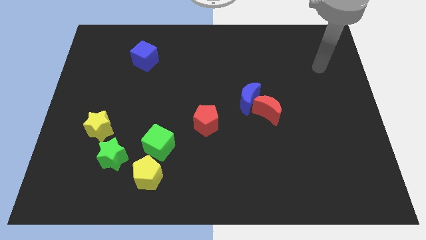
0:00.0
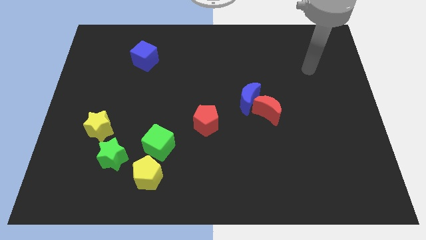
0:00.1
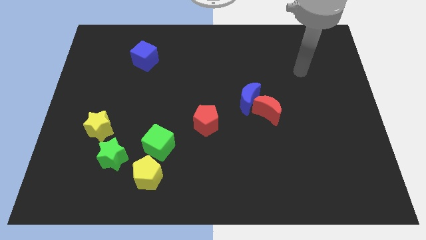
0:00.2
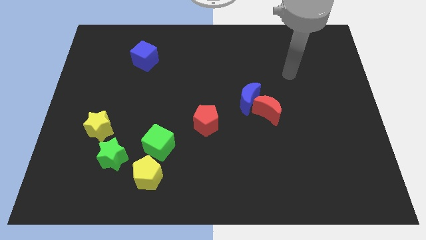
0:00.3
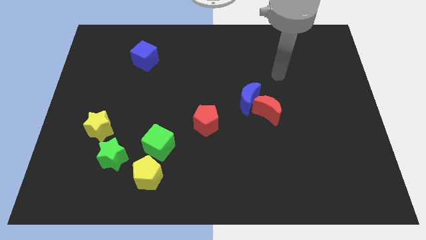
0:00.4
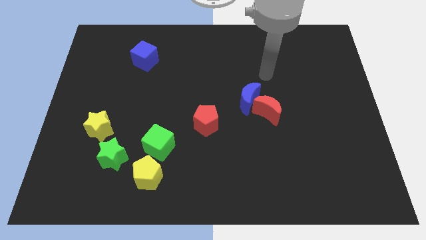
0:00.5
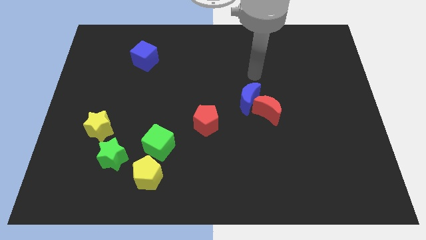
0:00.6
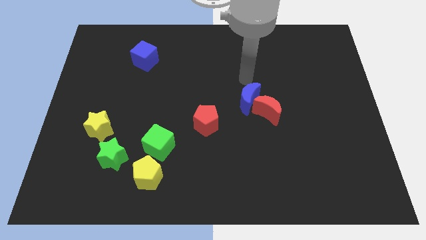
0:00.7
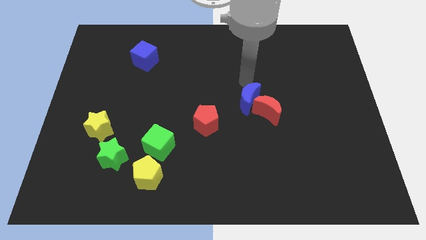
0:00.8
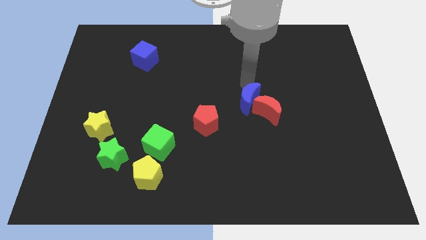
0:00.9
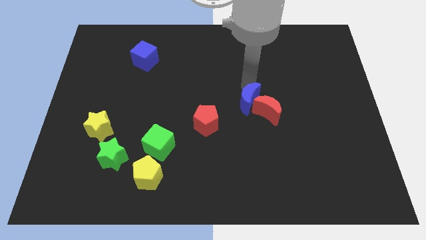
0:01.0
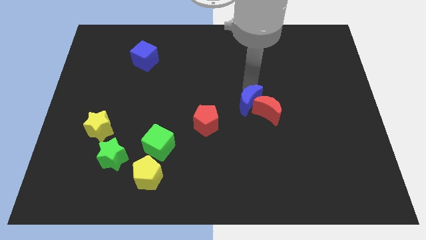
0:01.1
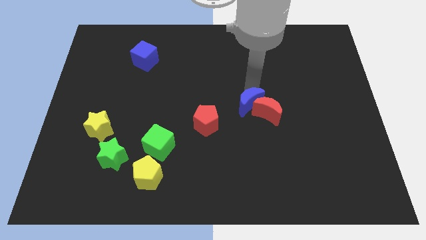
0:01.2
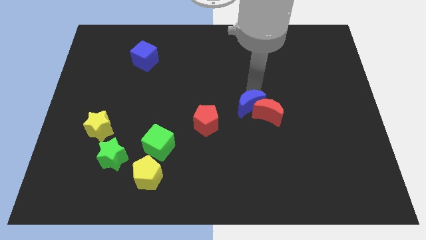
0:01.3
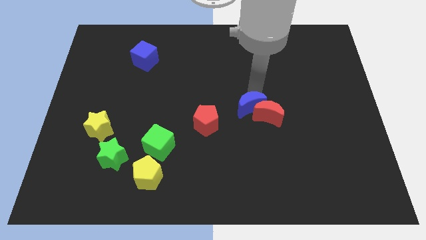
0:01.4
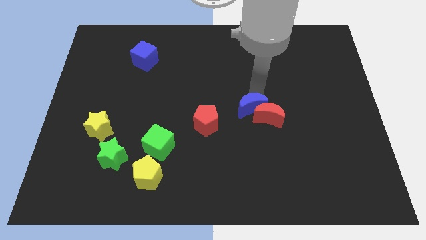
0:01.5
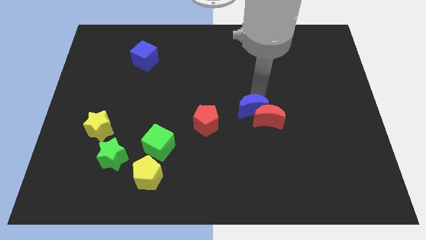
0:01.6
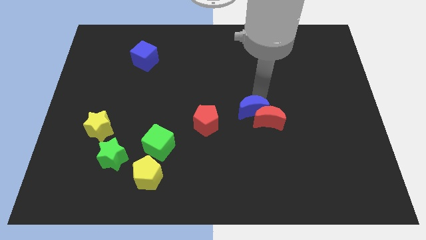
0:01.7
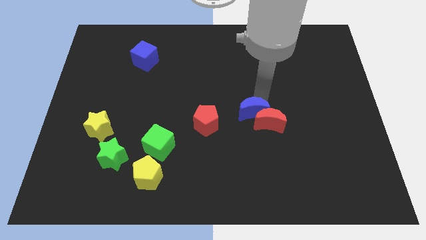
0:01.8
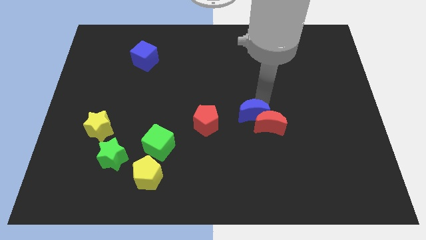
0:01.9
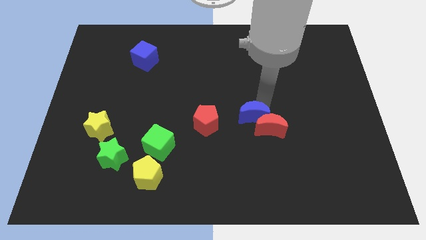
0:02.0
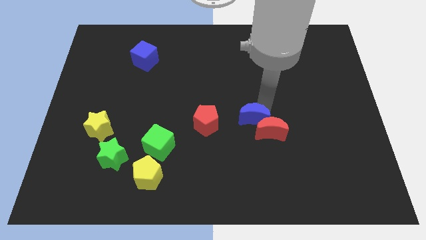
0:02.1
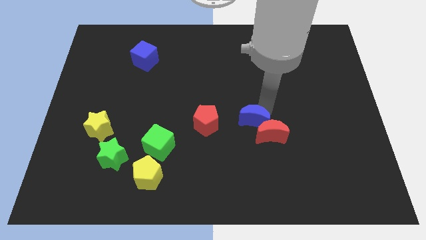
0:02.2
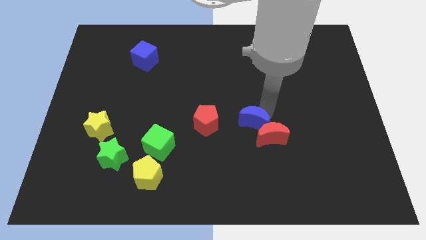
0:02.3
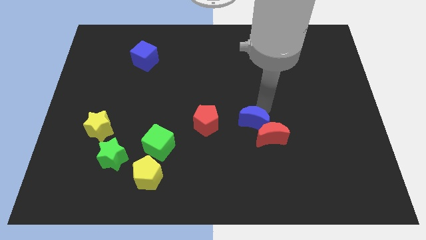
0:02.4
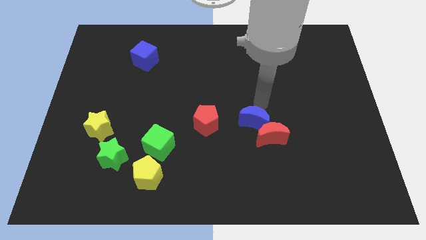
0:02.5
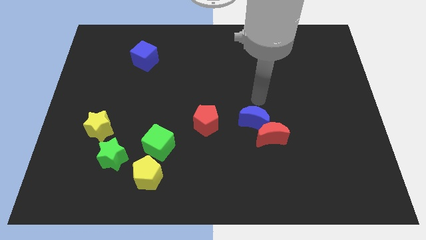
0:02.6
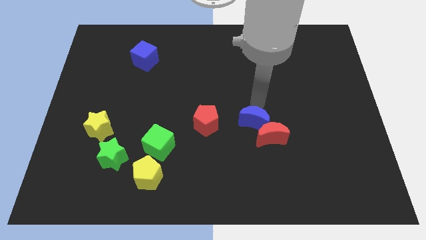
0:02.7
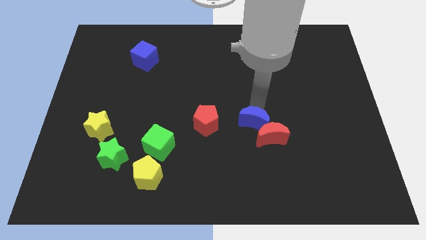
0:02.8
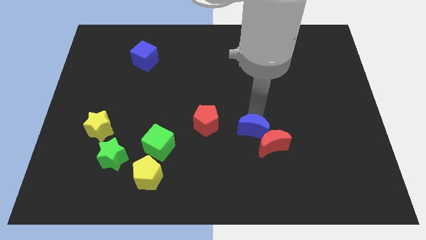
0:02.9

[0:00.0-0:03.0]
push the blue moon a bit down

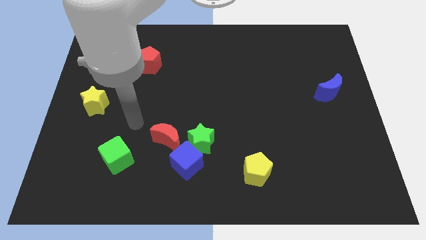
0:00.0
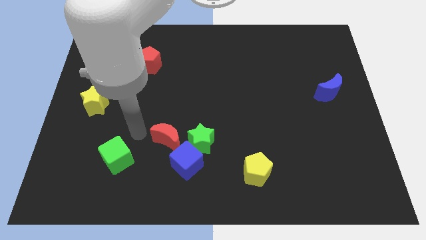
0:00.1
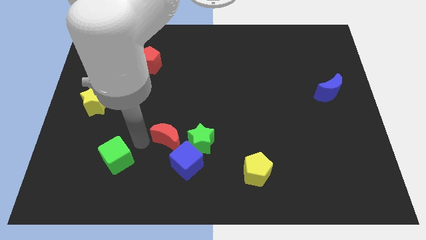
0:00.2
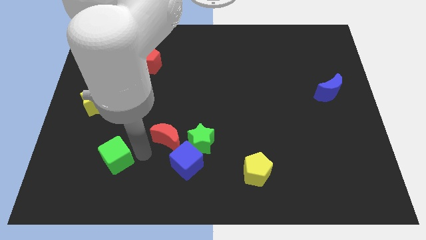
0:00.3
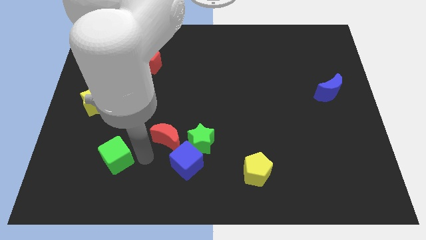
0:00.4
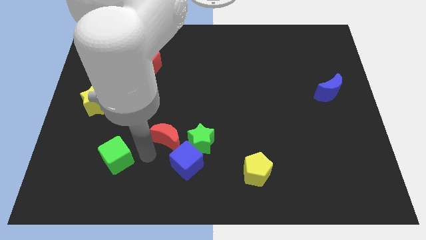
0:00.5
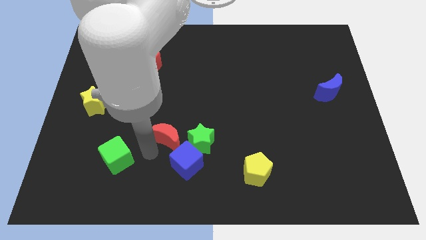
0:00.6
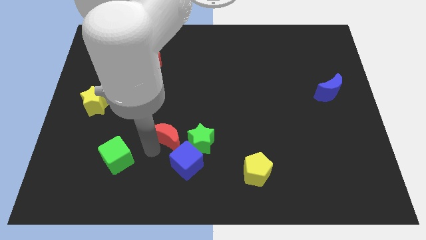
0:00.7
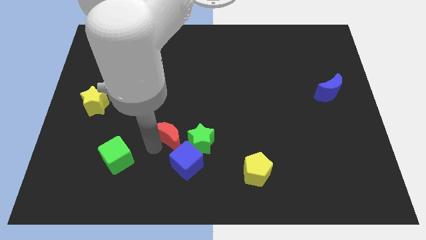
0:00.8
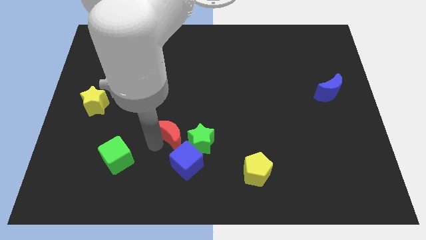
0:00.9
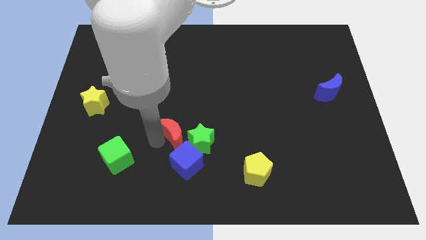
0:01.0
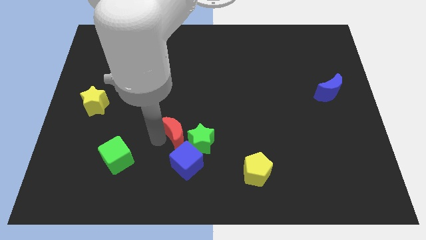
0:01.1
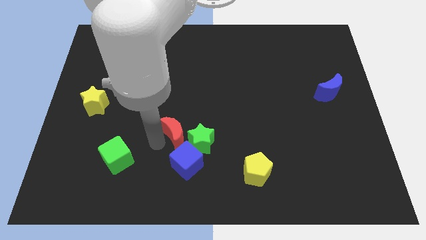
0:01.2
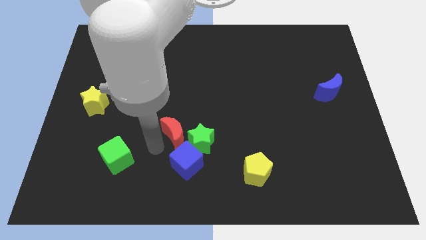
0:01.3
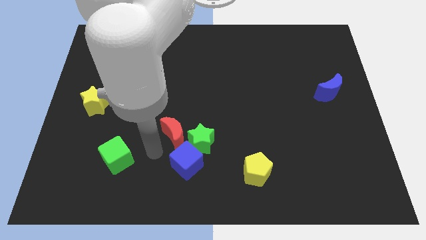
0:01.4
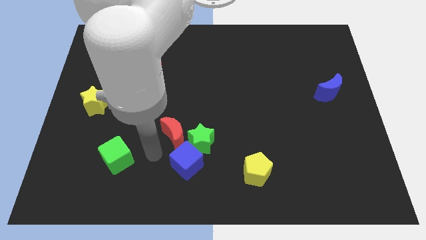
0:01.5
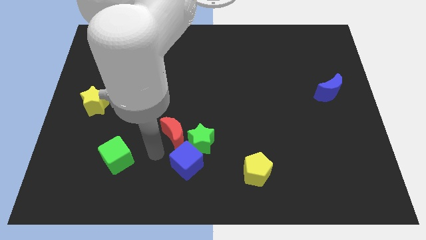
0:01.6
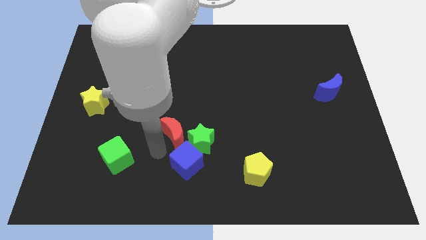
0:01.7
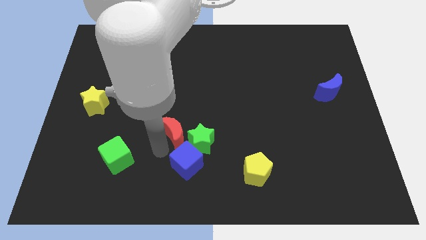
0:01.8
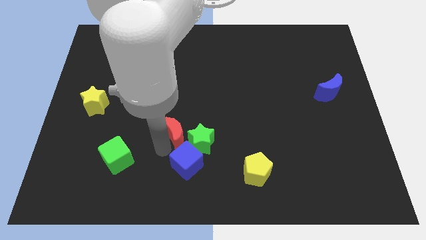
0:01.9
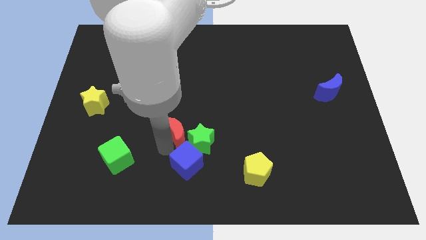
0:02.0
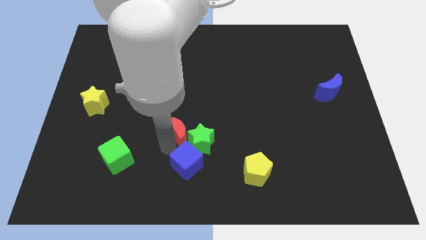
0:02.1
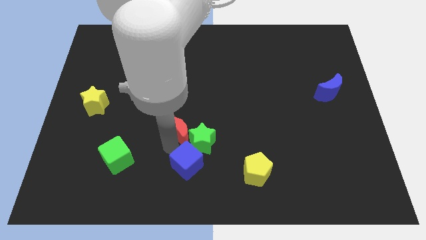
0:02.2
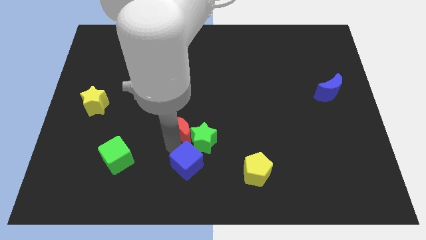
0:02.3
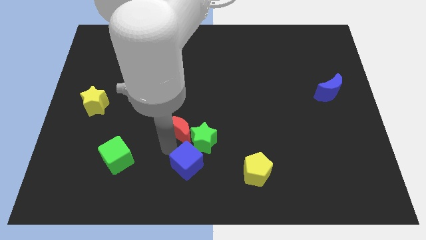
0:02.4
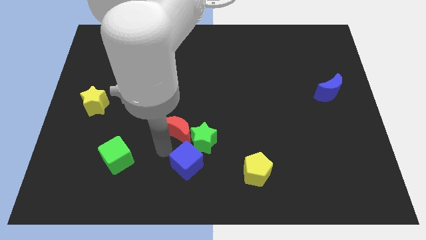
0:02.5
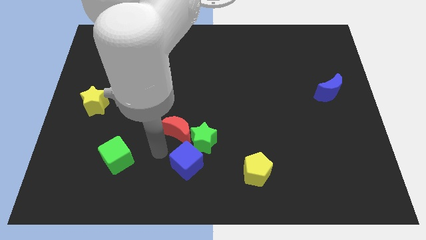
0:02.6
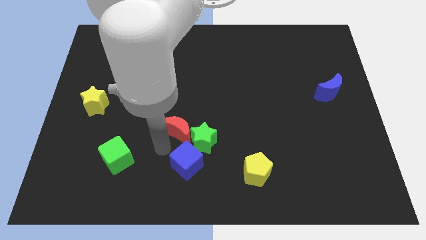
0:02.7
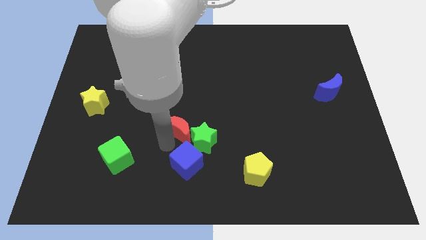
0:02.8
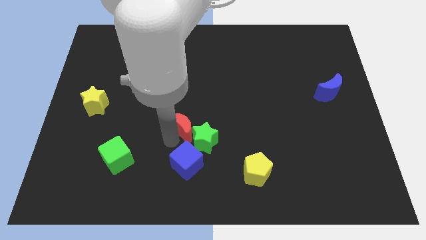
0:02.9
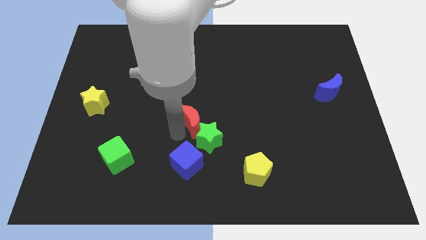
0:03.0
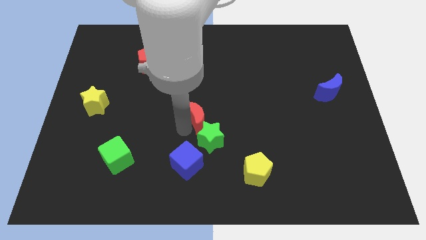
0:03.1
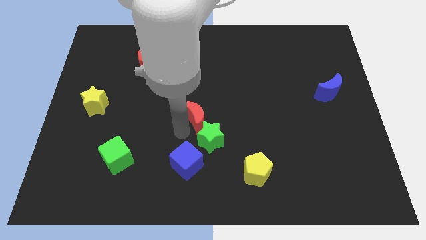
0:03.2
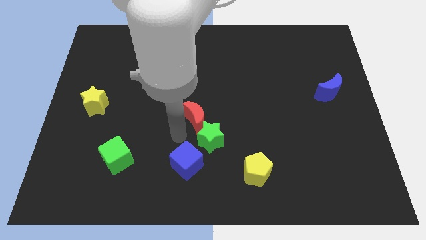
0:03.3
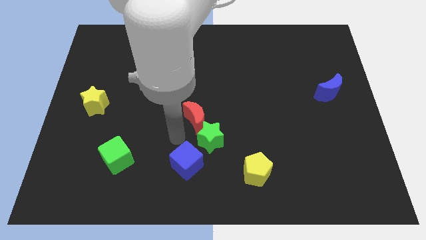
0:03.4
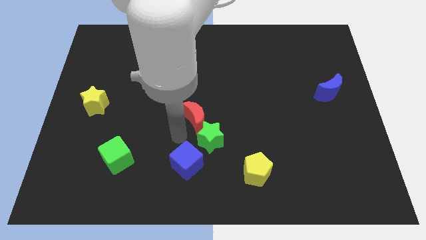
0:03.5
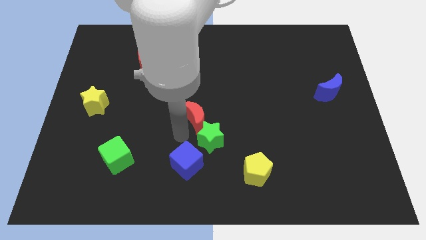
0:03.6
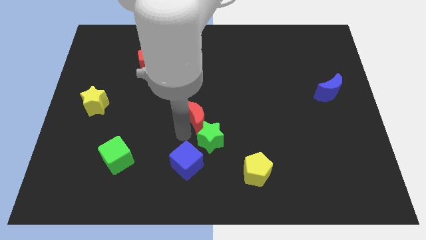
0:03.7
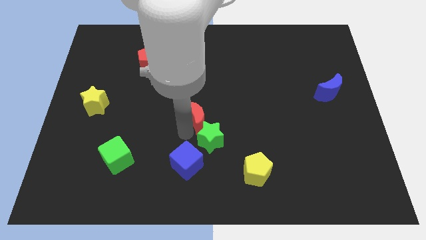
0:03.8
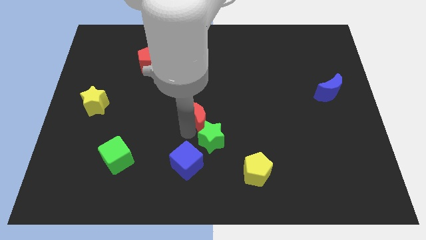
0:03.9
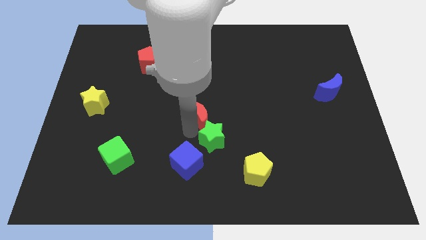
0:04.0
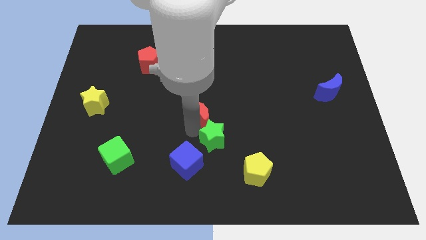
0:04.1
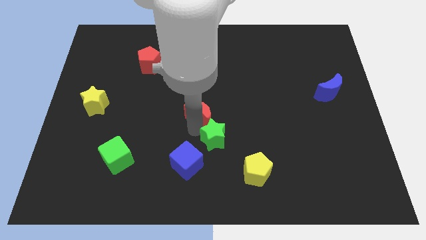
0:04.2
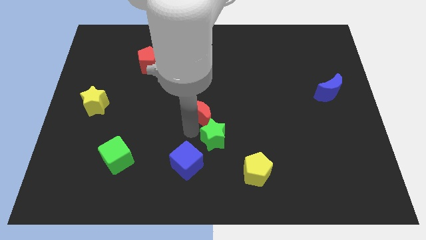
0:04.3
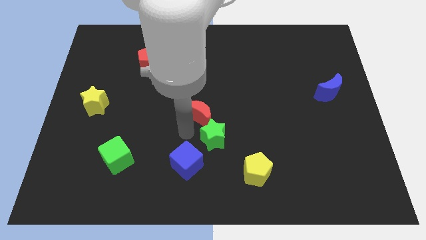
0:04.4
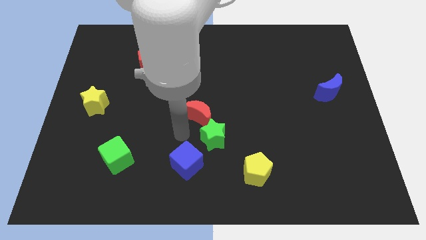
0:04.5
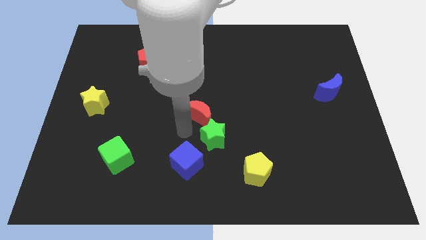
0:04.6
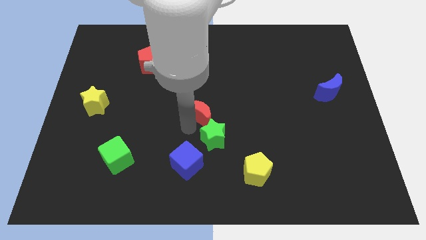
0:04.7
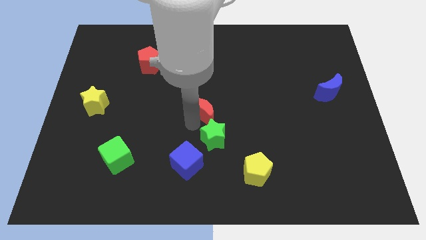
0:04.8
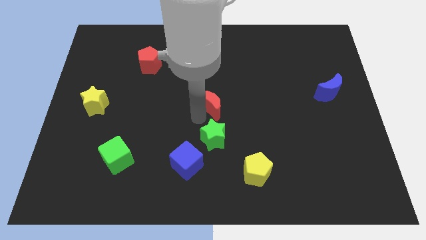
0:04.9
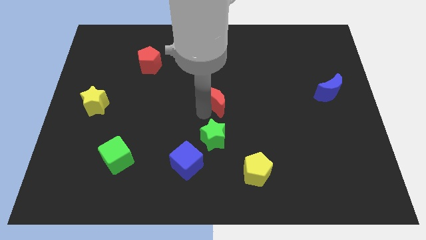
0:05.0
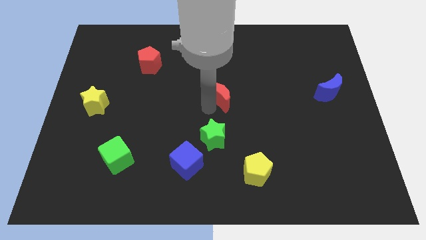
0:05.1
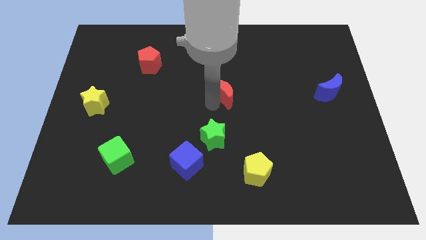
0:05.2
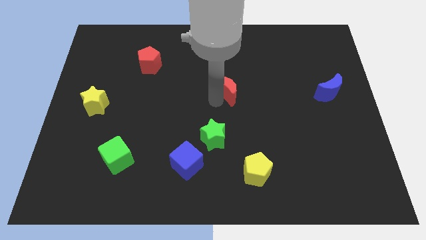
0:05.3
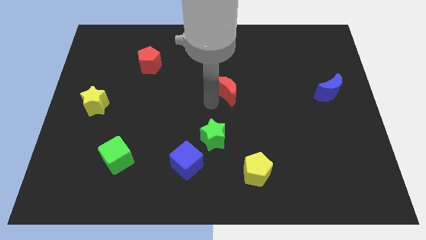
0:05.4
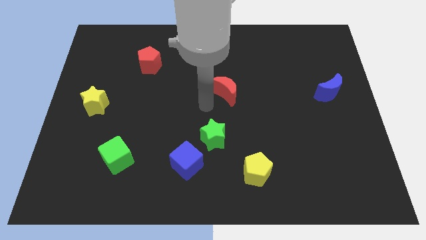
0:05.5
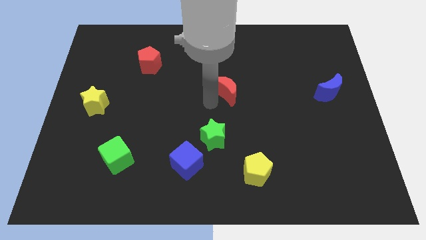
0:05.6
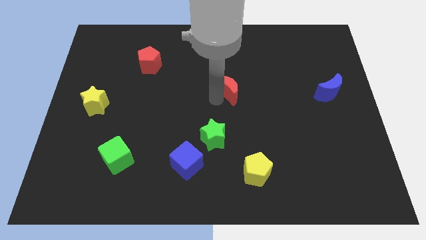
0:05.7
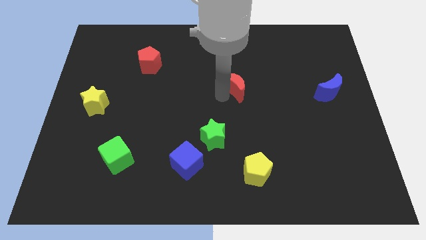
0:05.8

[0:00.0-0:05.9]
push the red moon upwards and to the right
